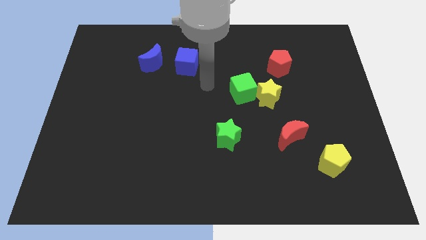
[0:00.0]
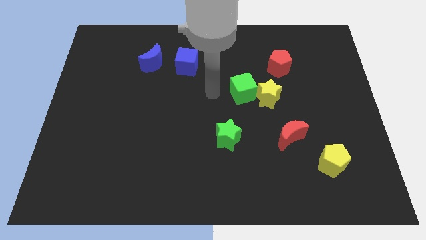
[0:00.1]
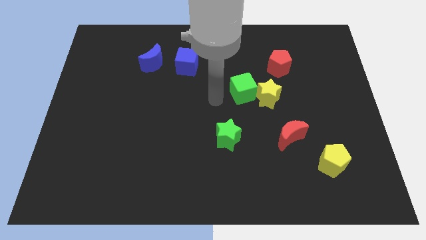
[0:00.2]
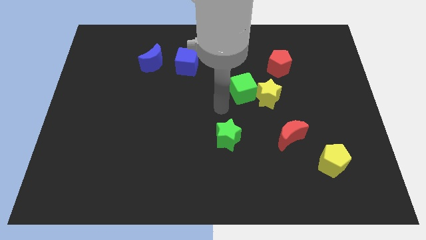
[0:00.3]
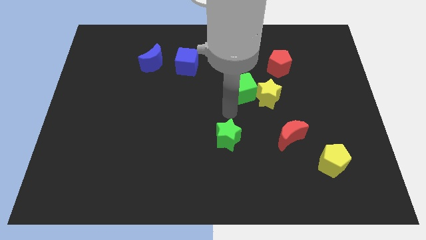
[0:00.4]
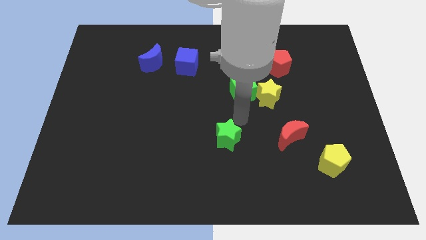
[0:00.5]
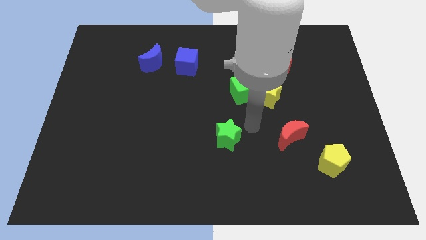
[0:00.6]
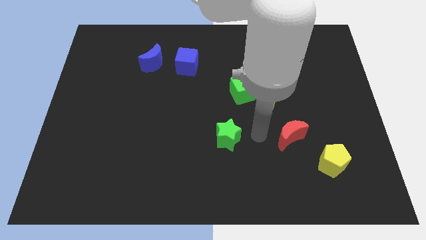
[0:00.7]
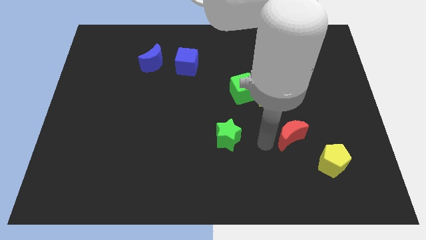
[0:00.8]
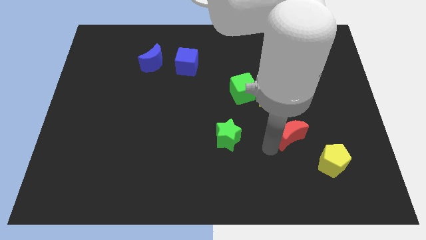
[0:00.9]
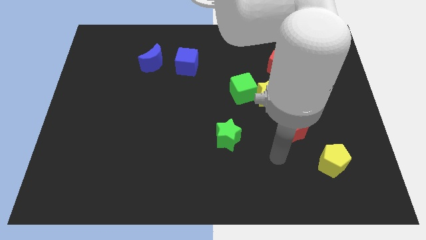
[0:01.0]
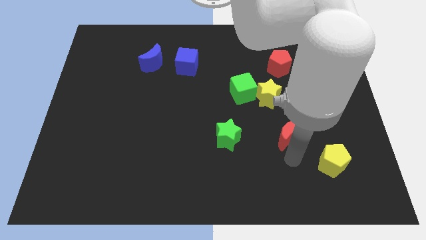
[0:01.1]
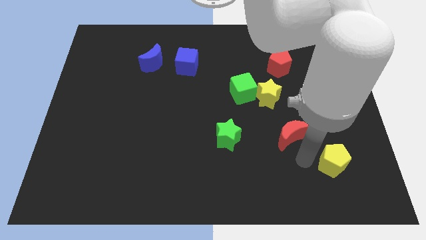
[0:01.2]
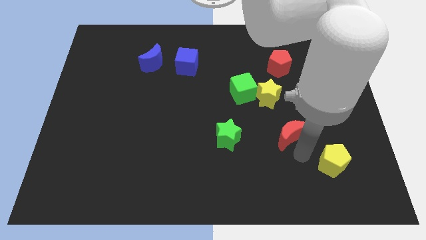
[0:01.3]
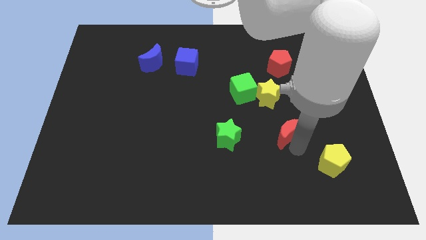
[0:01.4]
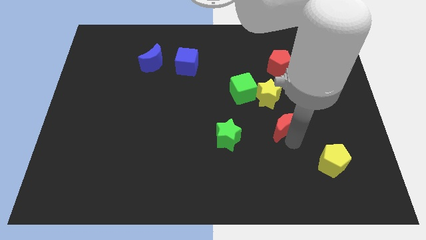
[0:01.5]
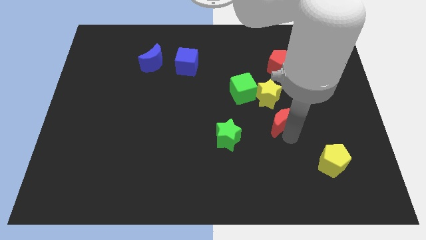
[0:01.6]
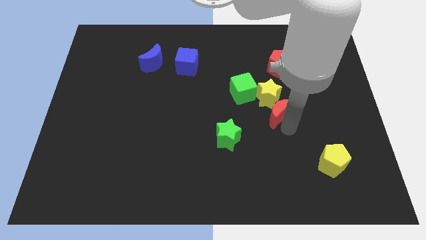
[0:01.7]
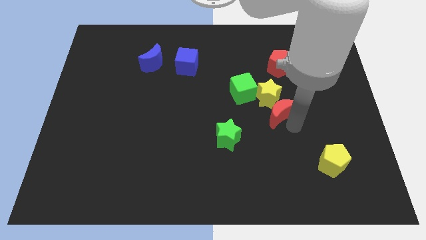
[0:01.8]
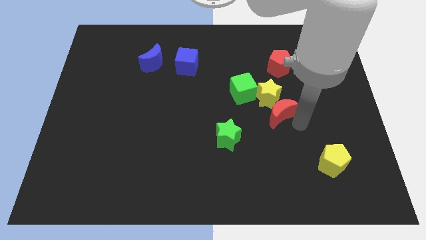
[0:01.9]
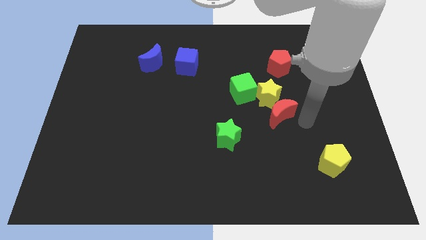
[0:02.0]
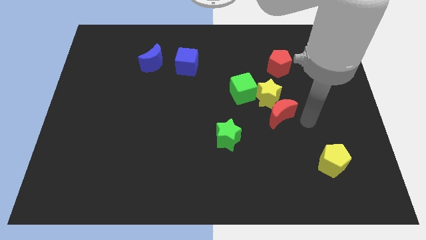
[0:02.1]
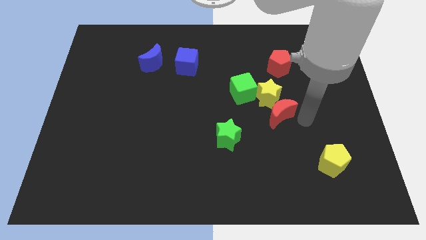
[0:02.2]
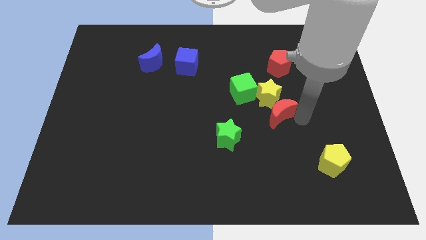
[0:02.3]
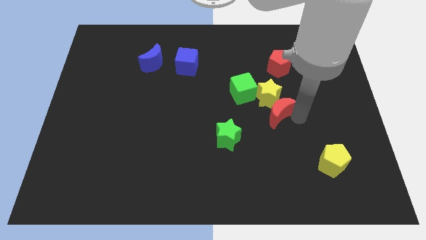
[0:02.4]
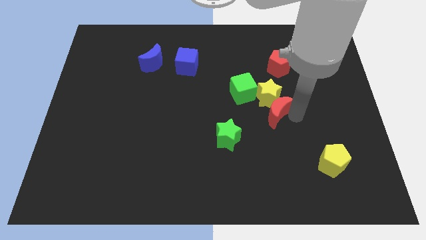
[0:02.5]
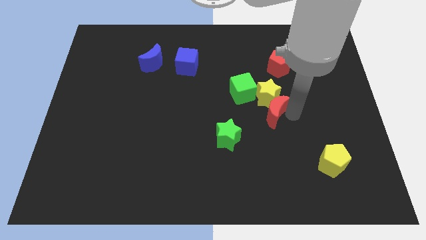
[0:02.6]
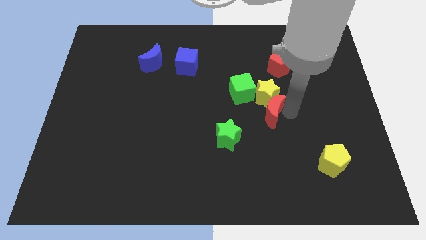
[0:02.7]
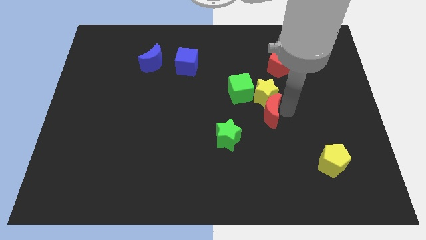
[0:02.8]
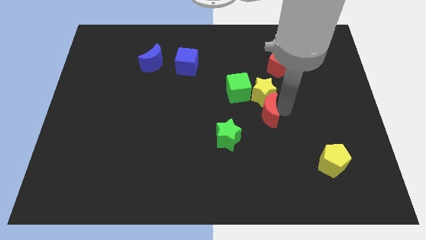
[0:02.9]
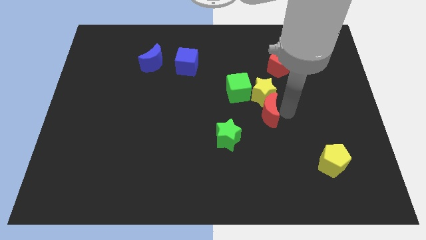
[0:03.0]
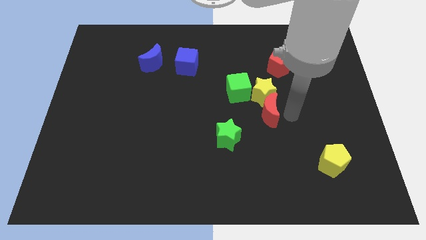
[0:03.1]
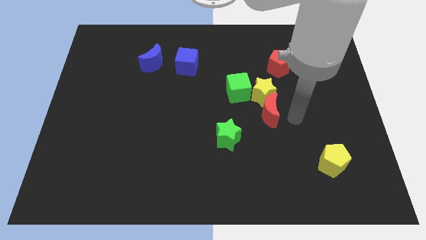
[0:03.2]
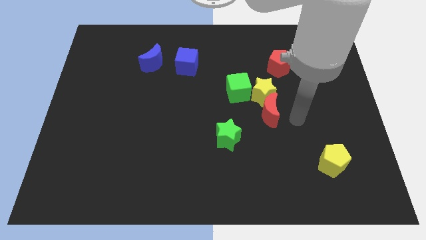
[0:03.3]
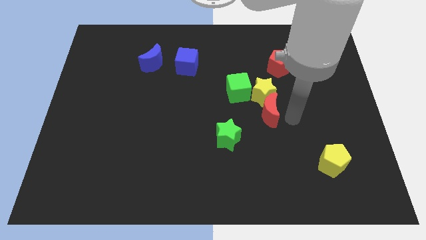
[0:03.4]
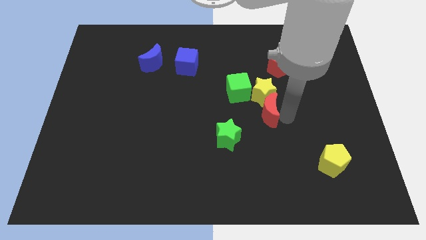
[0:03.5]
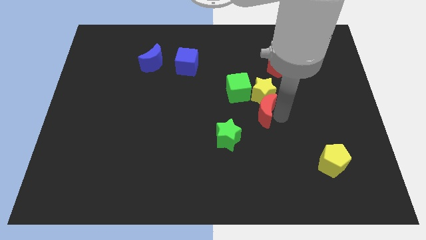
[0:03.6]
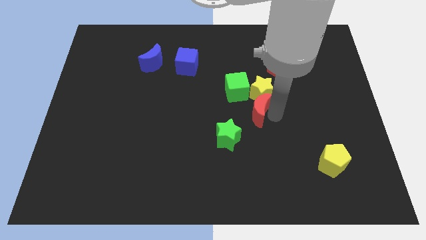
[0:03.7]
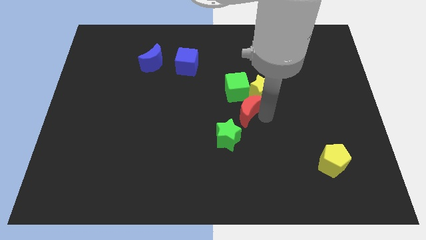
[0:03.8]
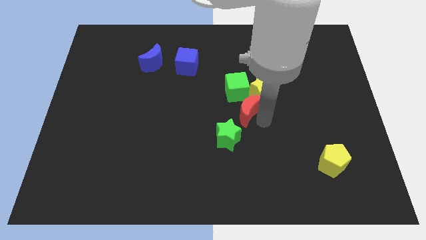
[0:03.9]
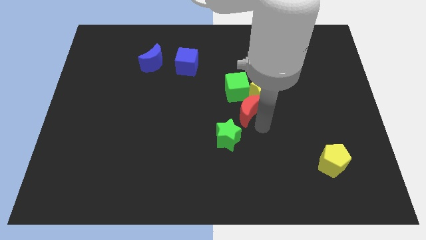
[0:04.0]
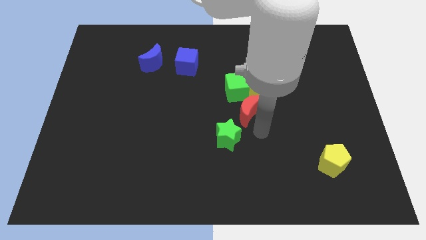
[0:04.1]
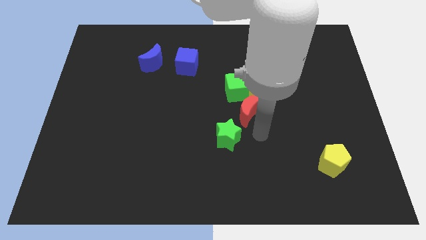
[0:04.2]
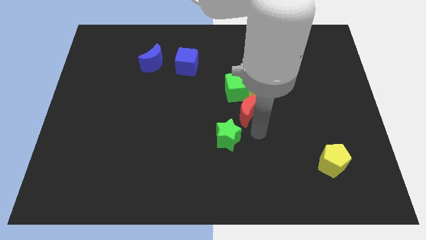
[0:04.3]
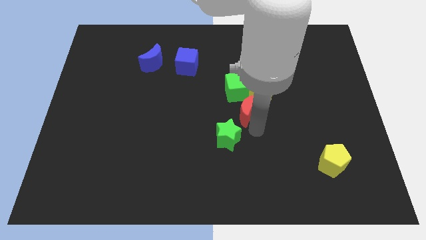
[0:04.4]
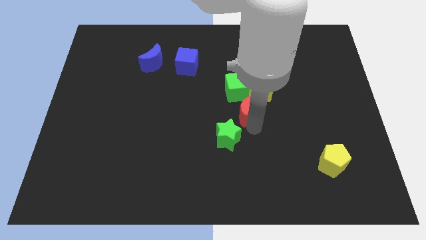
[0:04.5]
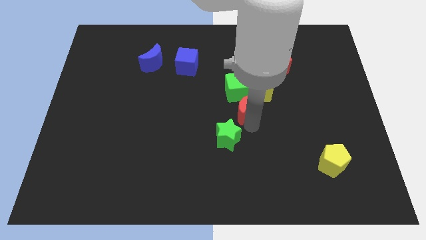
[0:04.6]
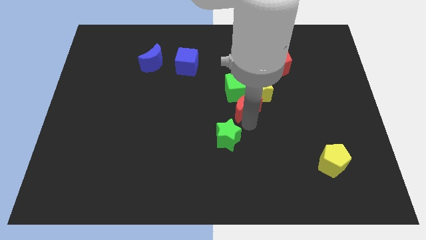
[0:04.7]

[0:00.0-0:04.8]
move the red moon to the green cube

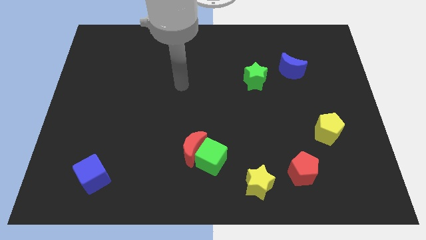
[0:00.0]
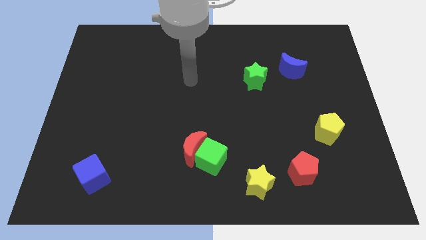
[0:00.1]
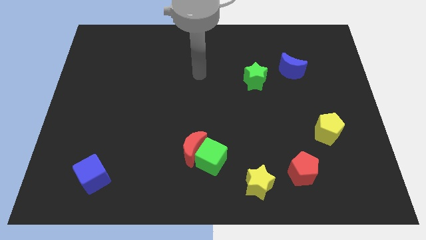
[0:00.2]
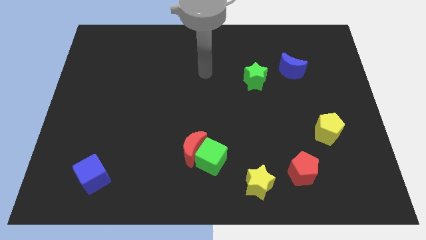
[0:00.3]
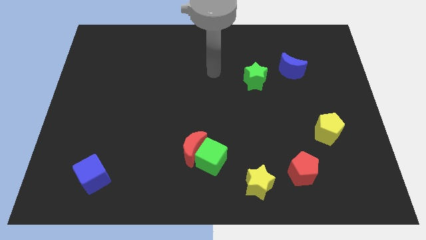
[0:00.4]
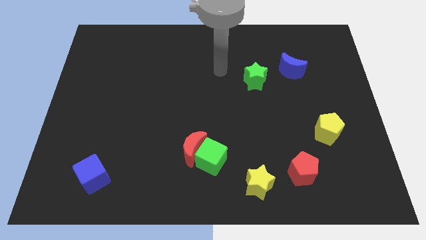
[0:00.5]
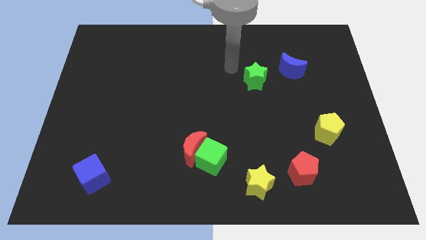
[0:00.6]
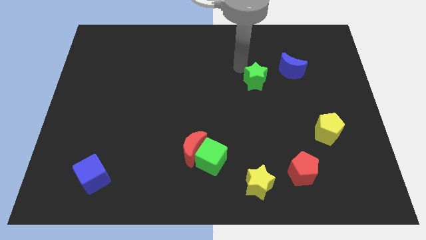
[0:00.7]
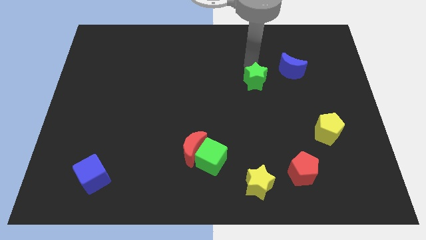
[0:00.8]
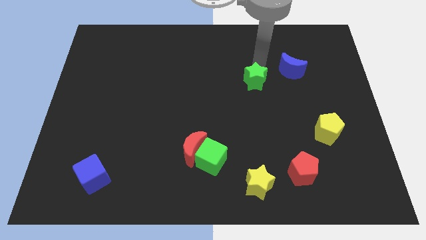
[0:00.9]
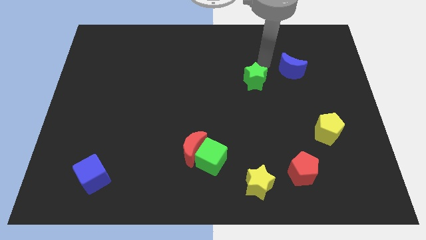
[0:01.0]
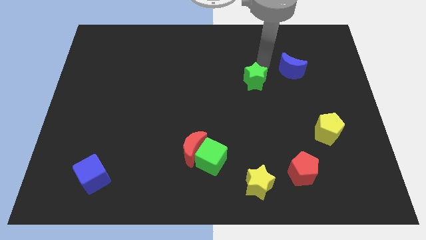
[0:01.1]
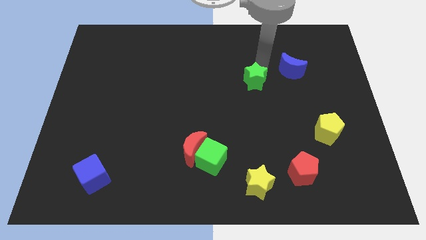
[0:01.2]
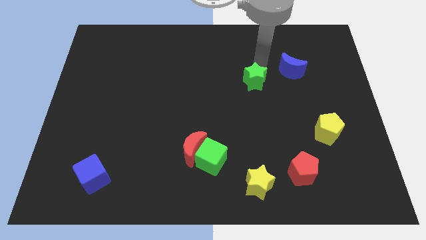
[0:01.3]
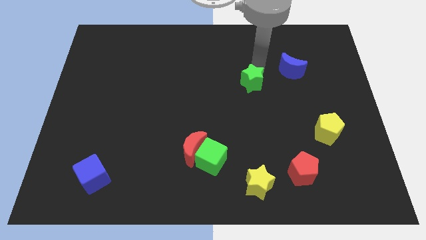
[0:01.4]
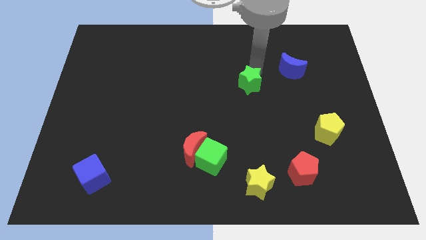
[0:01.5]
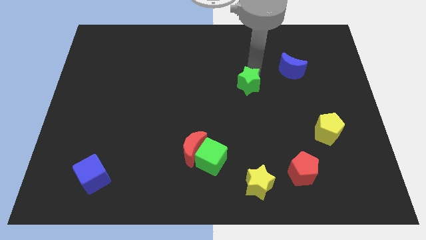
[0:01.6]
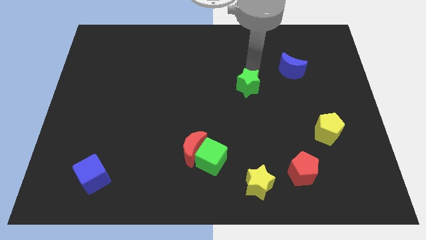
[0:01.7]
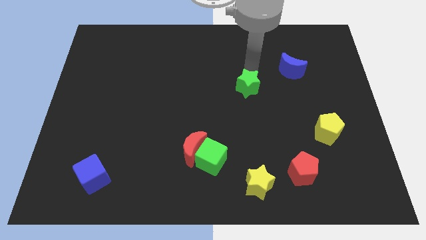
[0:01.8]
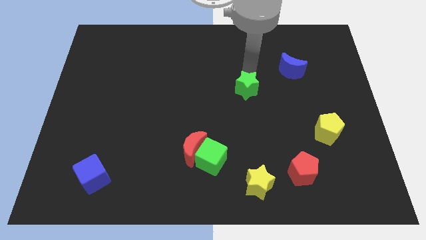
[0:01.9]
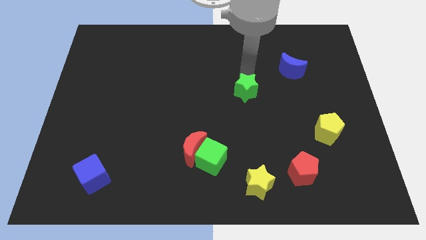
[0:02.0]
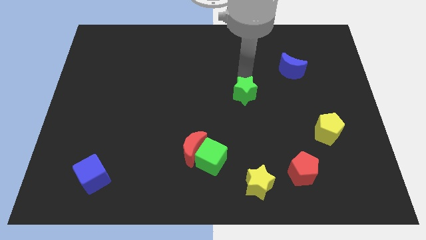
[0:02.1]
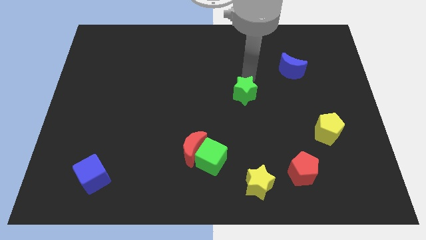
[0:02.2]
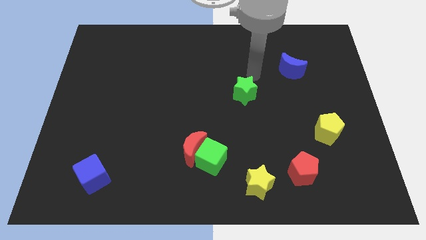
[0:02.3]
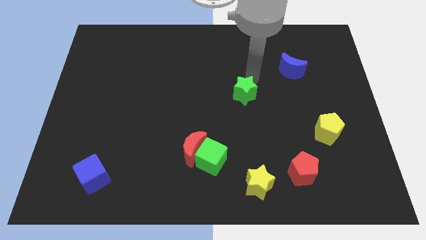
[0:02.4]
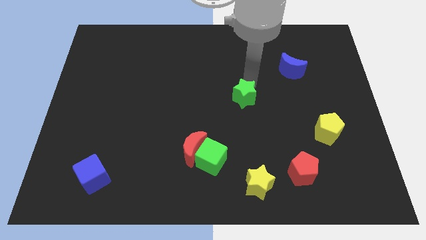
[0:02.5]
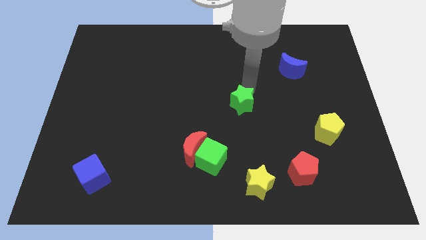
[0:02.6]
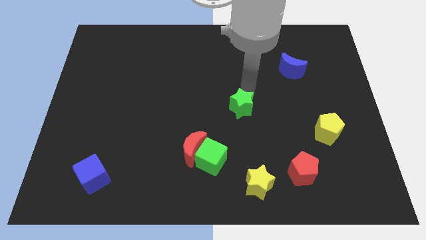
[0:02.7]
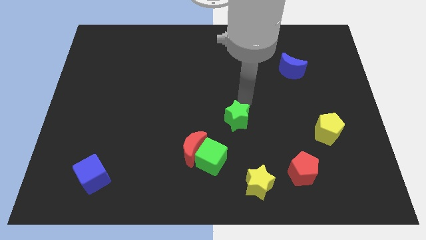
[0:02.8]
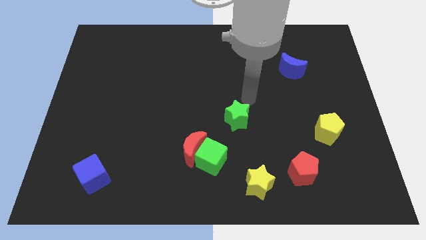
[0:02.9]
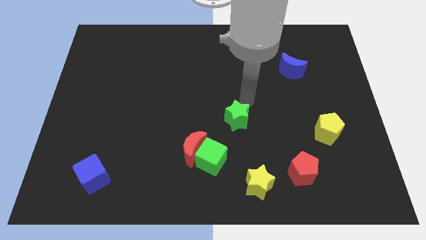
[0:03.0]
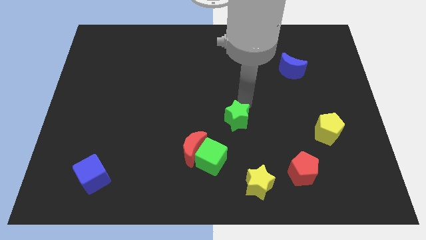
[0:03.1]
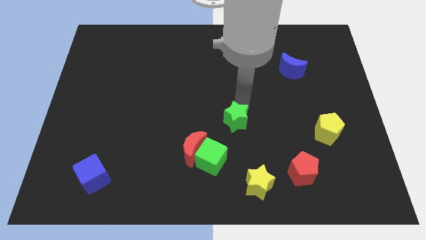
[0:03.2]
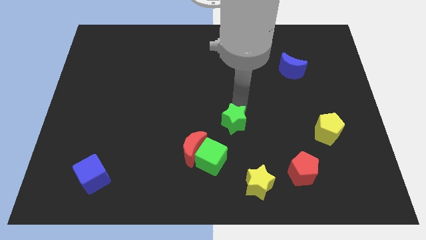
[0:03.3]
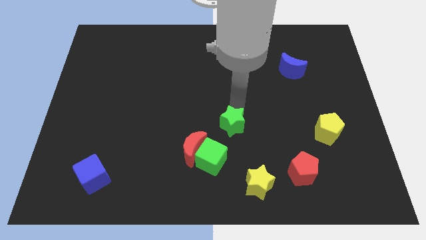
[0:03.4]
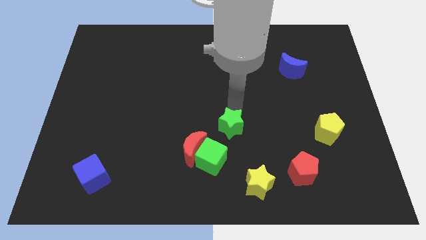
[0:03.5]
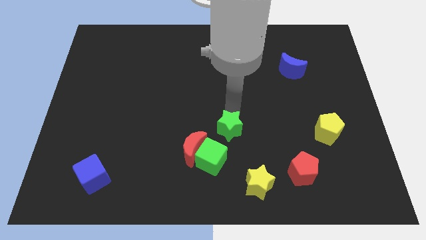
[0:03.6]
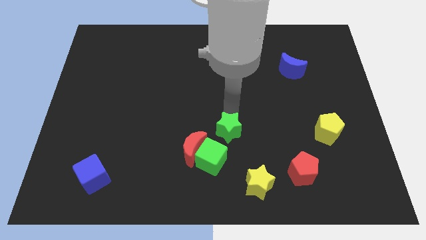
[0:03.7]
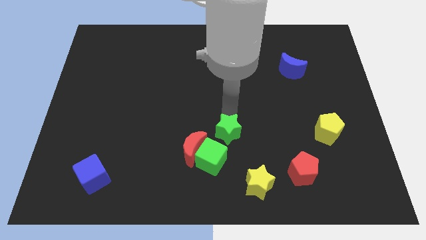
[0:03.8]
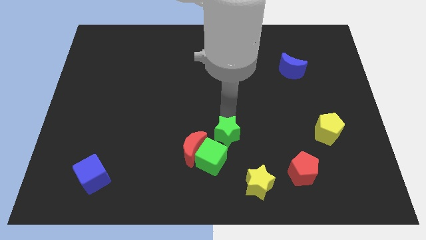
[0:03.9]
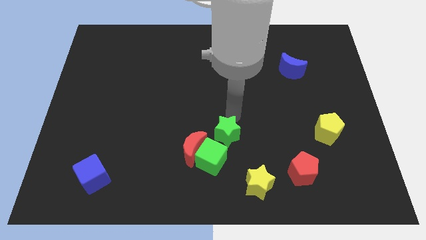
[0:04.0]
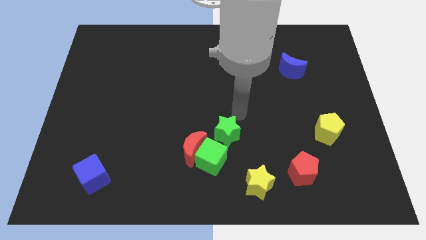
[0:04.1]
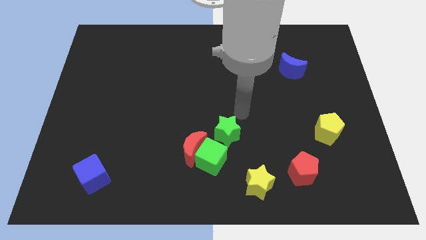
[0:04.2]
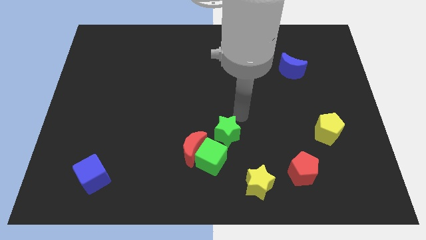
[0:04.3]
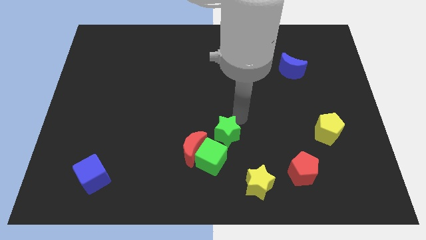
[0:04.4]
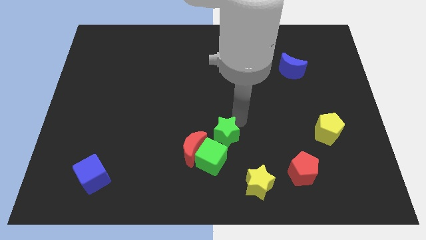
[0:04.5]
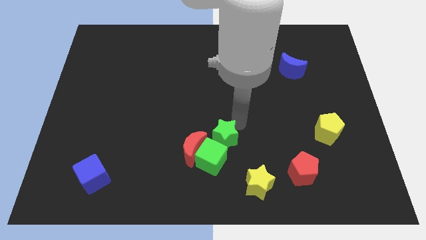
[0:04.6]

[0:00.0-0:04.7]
slide the green star close to the green cube
